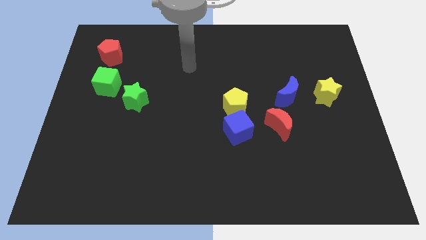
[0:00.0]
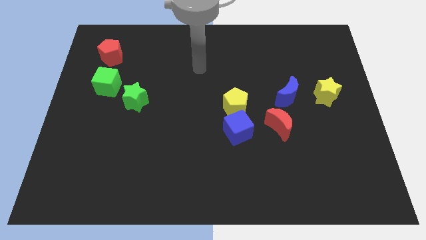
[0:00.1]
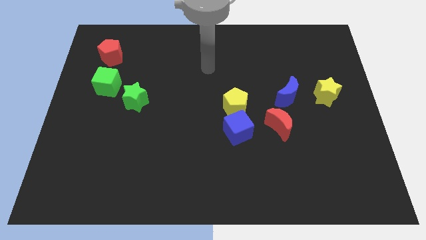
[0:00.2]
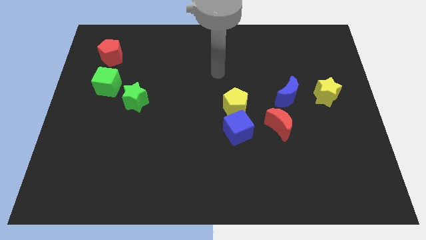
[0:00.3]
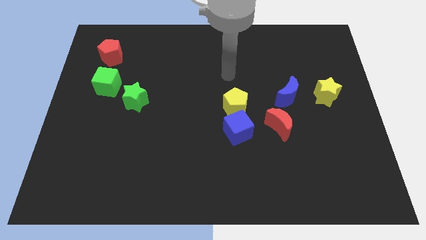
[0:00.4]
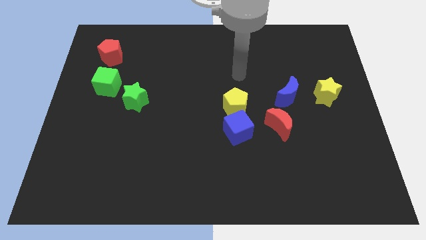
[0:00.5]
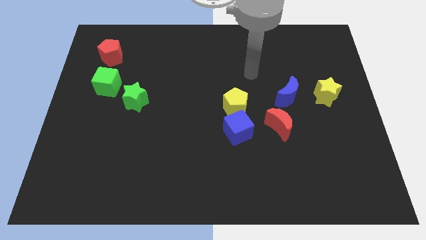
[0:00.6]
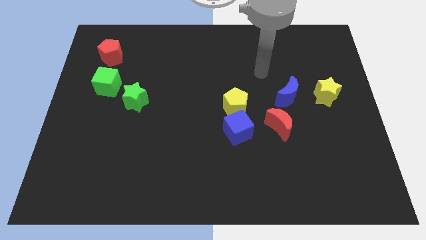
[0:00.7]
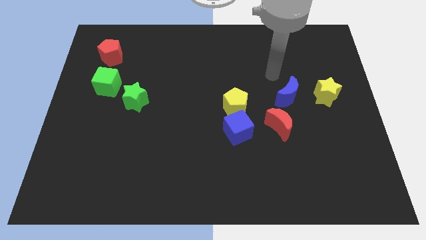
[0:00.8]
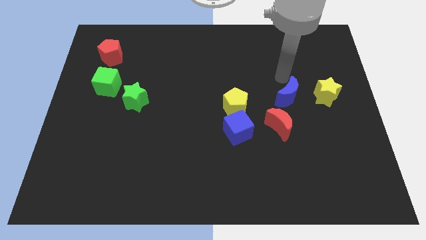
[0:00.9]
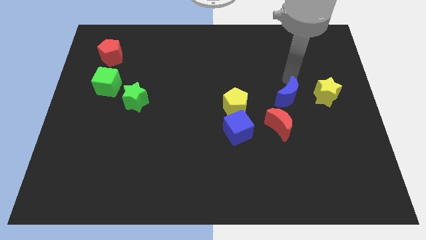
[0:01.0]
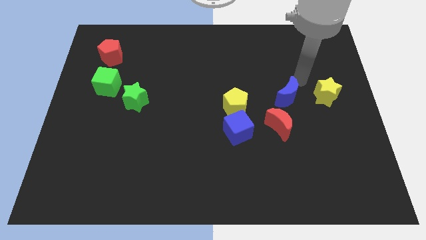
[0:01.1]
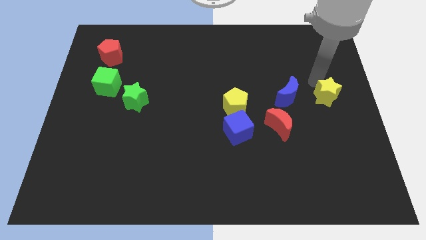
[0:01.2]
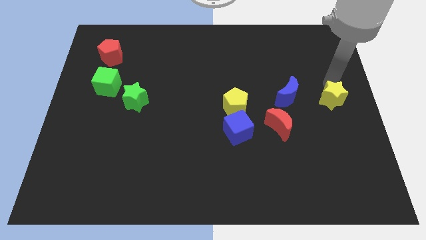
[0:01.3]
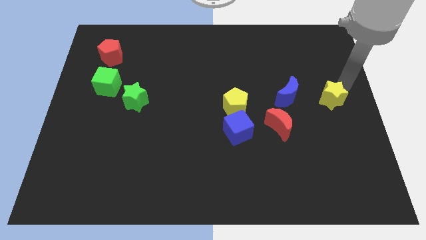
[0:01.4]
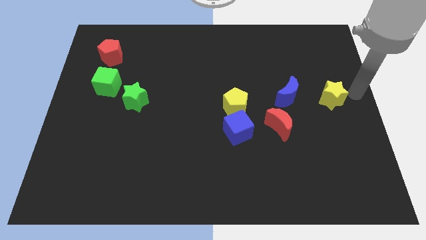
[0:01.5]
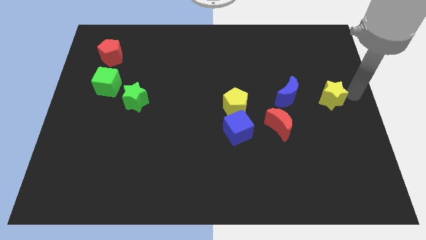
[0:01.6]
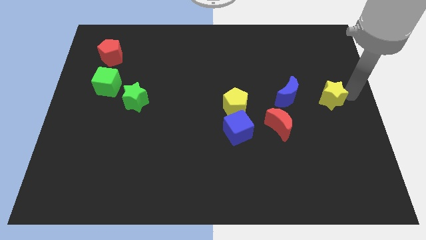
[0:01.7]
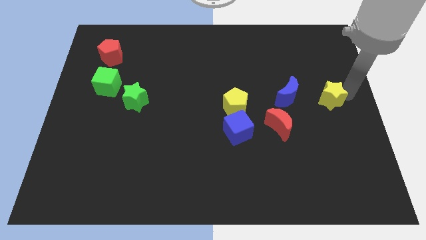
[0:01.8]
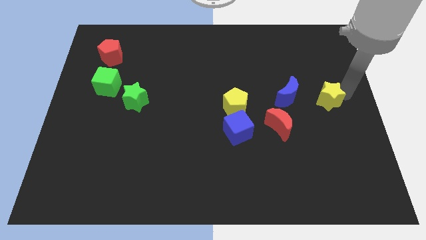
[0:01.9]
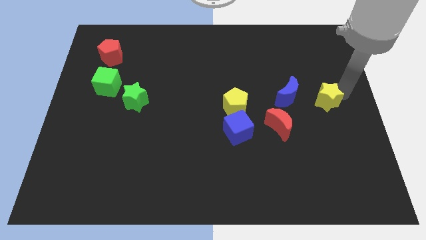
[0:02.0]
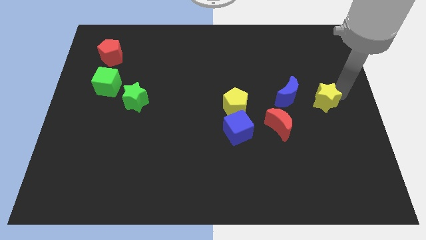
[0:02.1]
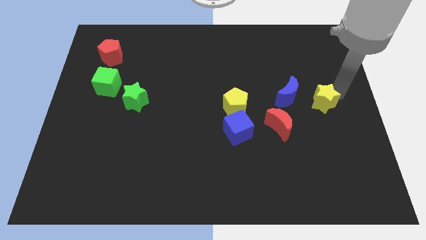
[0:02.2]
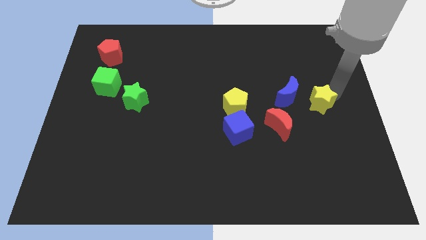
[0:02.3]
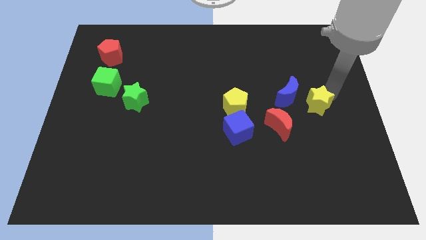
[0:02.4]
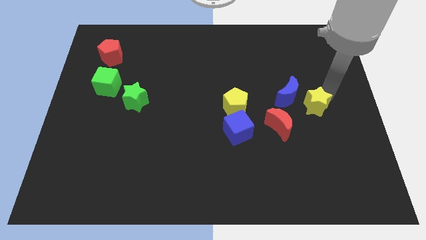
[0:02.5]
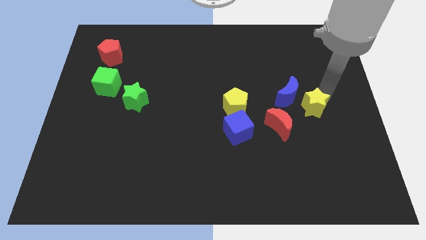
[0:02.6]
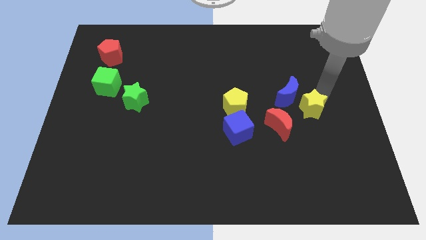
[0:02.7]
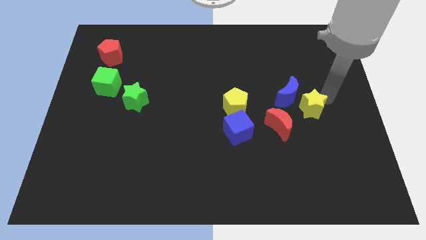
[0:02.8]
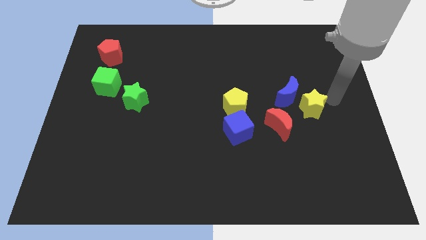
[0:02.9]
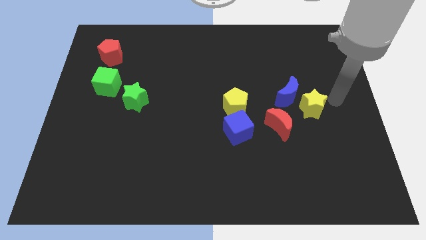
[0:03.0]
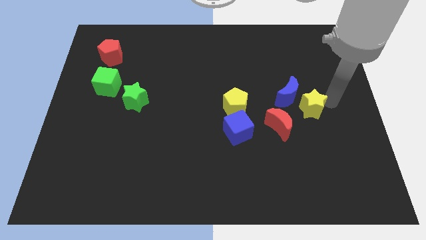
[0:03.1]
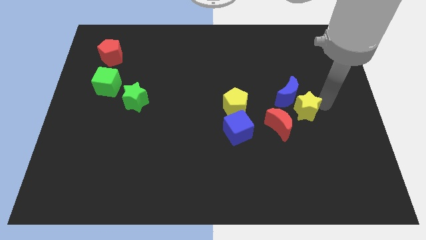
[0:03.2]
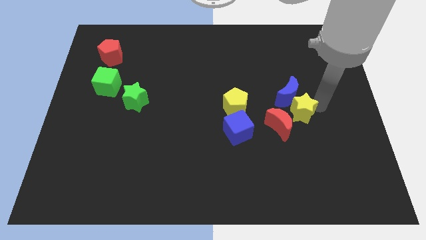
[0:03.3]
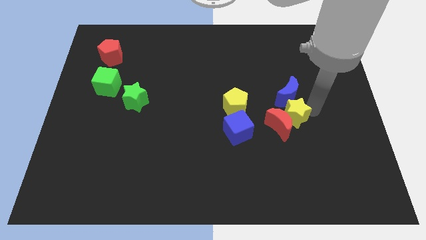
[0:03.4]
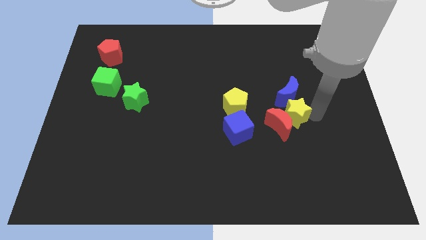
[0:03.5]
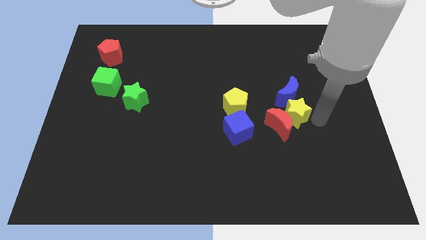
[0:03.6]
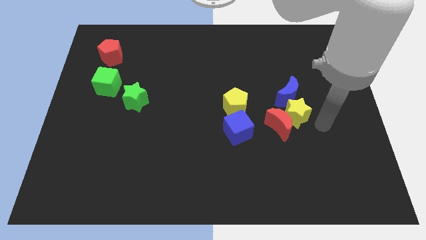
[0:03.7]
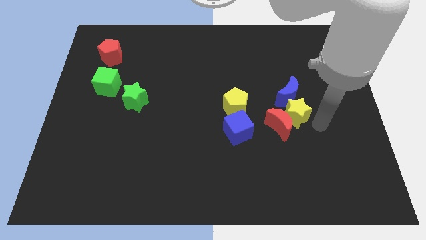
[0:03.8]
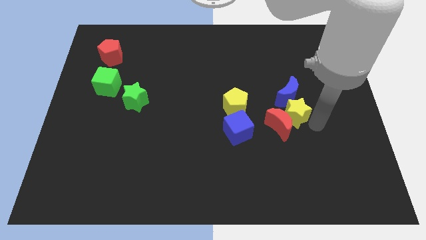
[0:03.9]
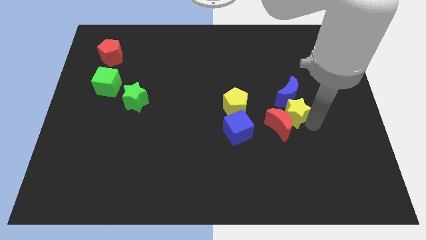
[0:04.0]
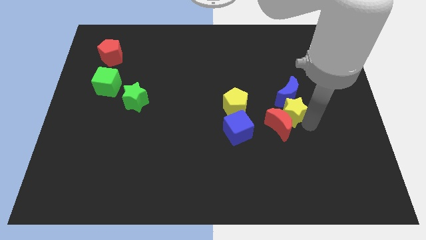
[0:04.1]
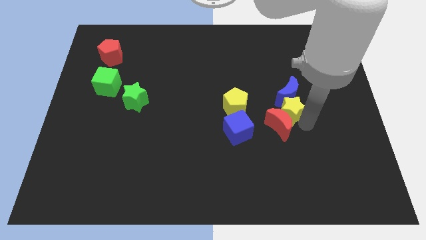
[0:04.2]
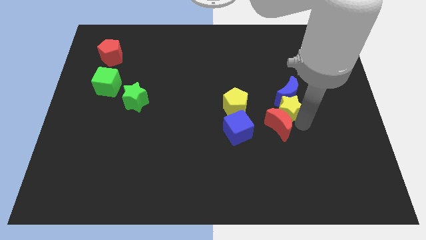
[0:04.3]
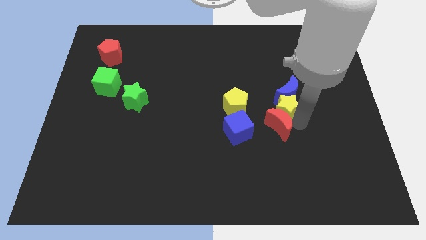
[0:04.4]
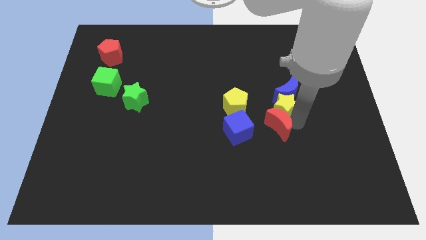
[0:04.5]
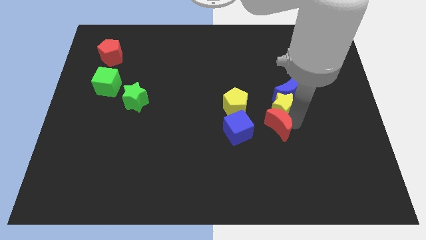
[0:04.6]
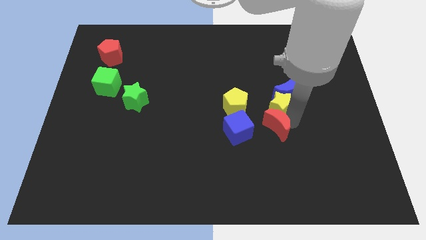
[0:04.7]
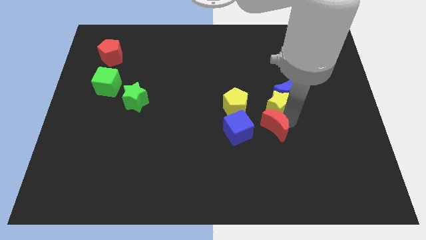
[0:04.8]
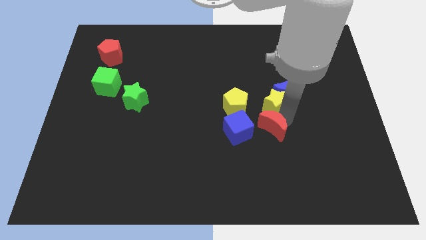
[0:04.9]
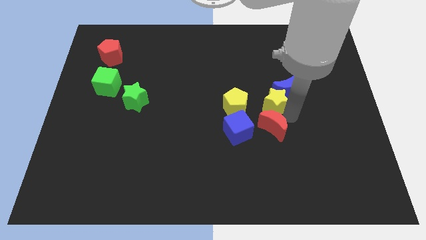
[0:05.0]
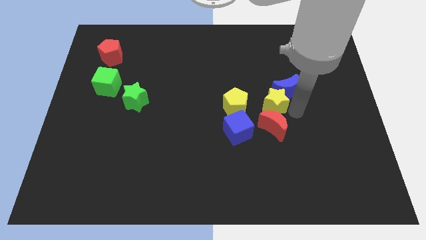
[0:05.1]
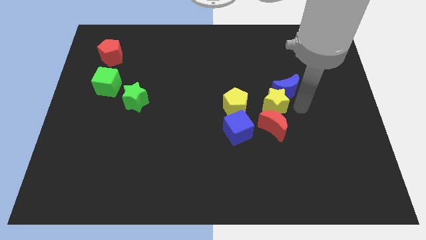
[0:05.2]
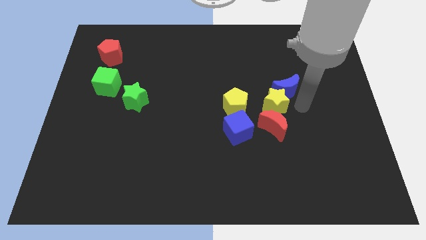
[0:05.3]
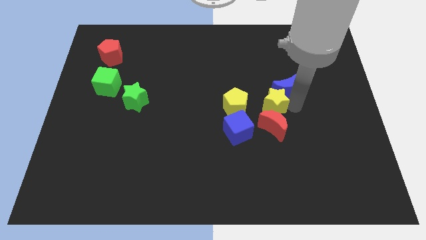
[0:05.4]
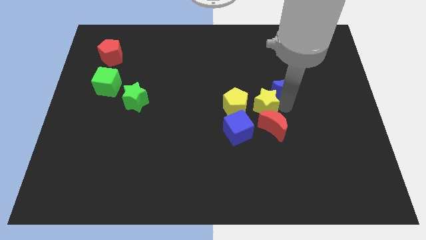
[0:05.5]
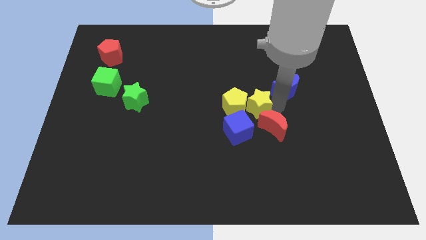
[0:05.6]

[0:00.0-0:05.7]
slide the yellow star close to the yellow pentagon

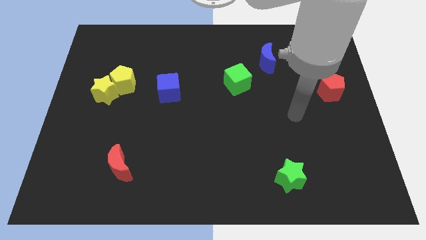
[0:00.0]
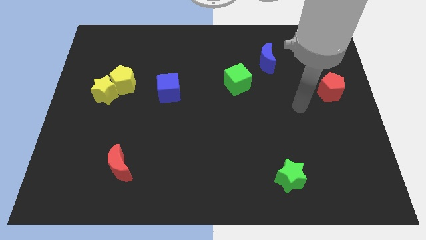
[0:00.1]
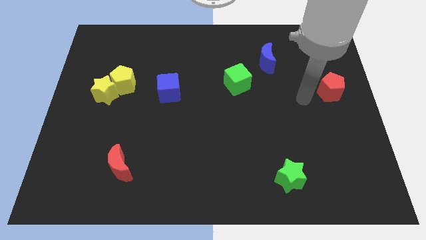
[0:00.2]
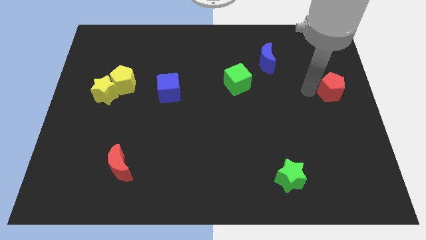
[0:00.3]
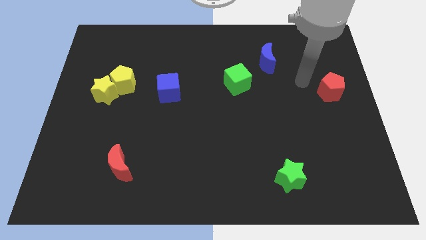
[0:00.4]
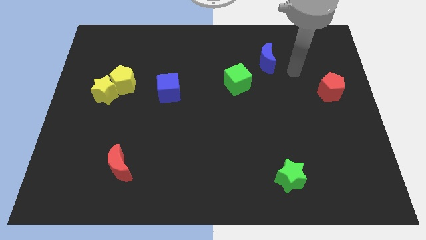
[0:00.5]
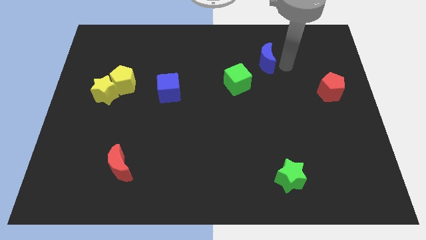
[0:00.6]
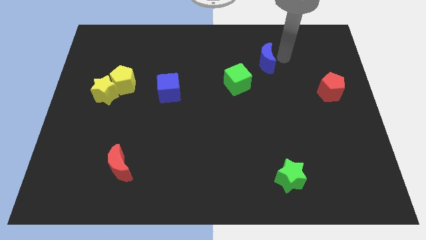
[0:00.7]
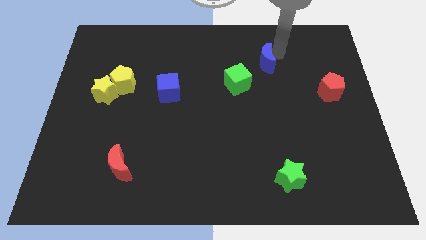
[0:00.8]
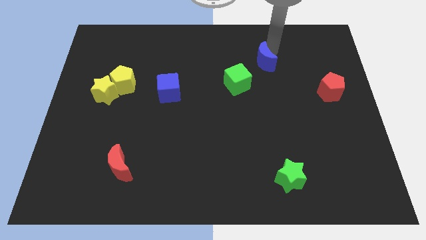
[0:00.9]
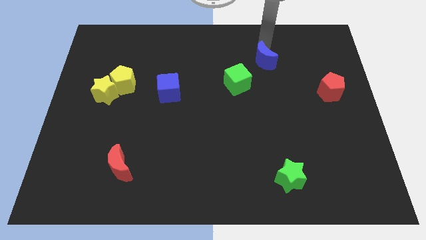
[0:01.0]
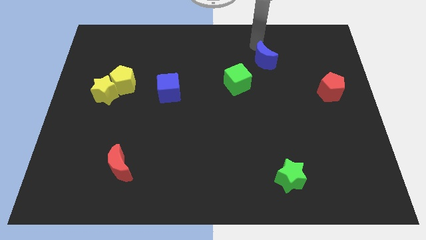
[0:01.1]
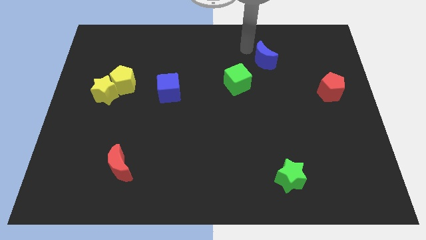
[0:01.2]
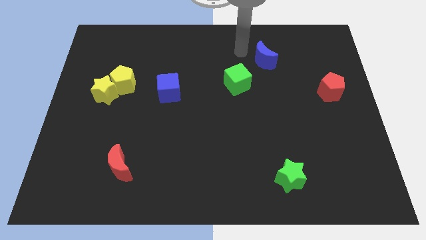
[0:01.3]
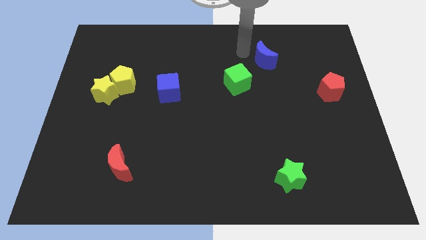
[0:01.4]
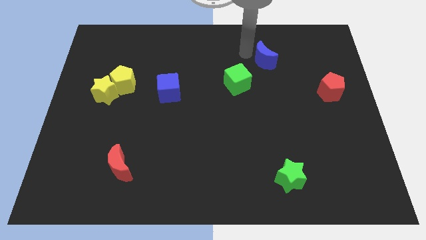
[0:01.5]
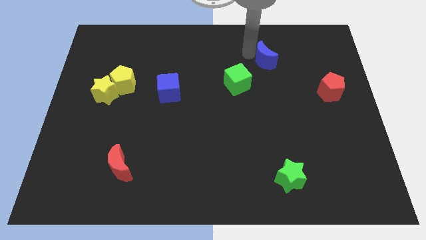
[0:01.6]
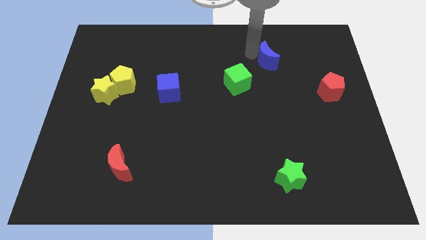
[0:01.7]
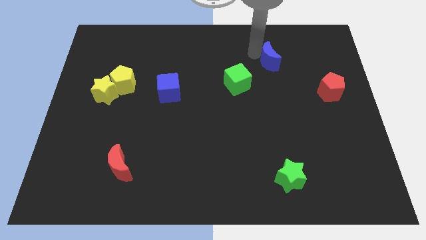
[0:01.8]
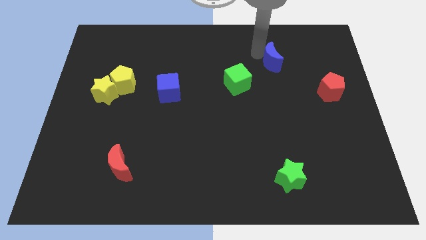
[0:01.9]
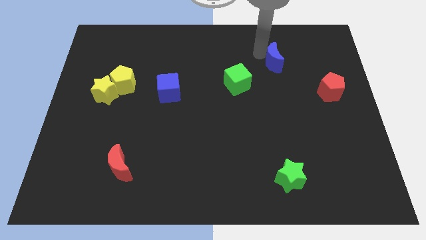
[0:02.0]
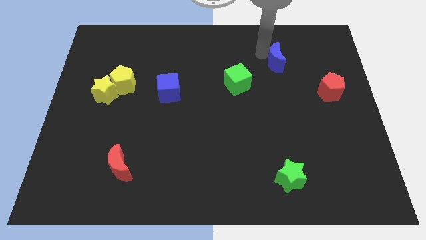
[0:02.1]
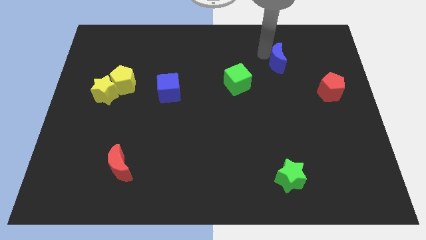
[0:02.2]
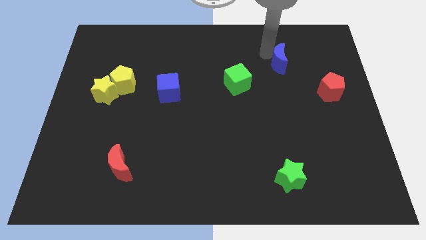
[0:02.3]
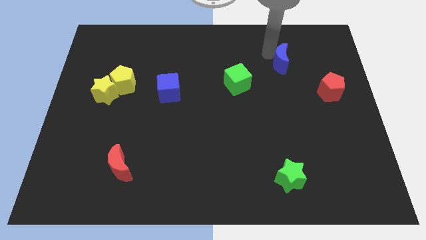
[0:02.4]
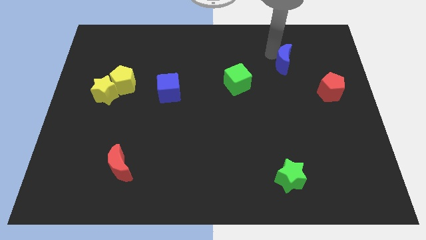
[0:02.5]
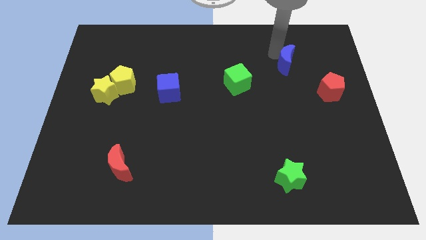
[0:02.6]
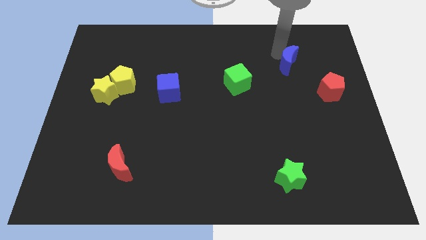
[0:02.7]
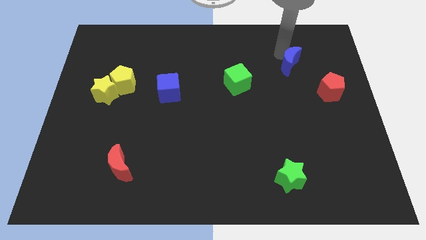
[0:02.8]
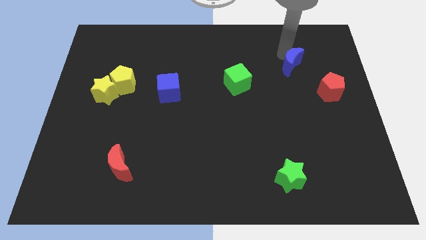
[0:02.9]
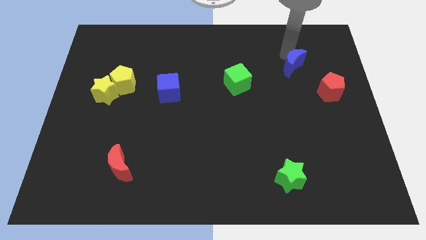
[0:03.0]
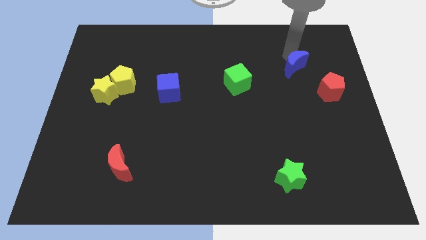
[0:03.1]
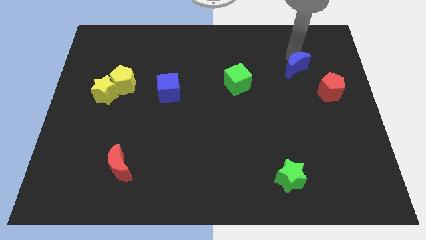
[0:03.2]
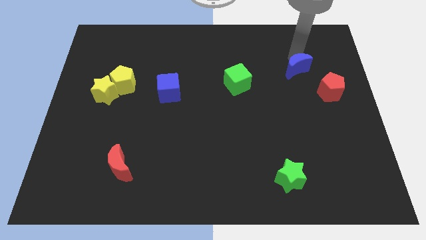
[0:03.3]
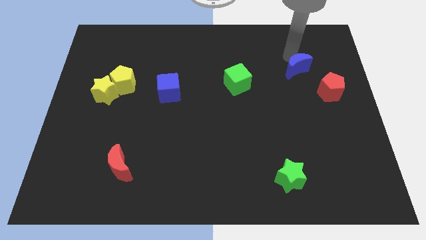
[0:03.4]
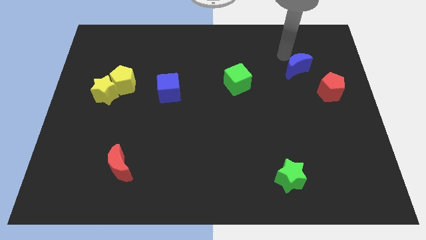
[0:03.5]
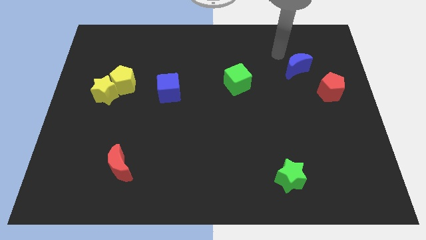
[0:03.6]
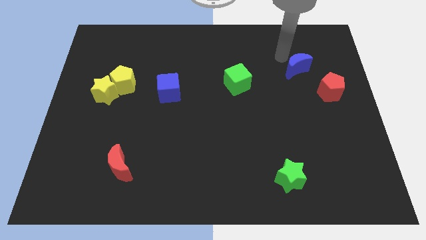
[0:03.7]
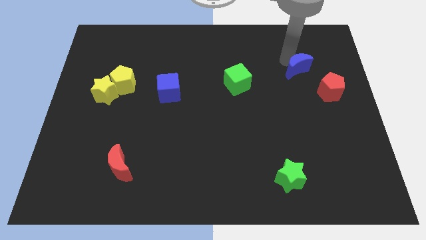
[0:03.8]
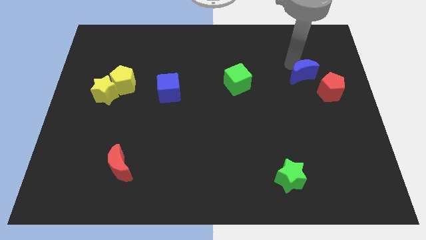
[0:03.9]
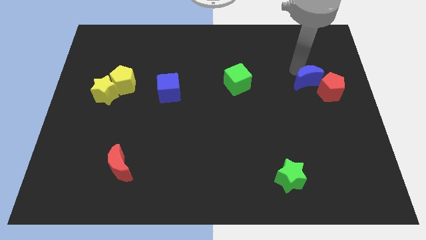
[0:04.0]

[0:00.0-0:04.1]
move the blue moon close to the red pentagon
